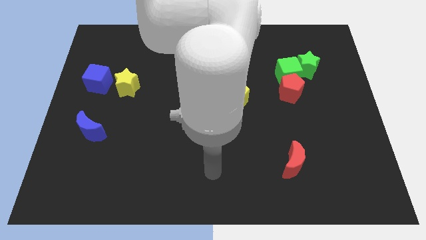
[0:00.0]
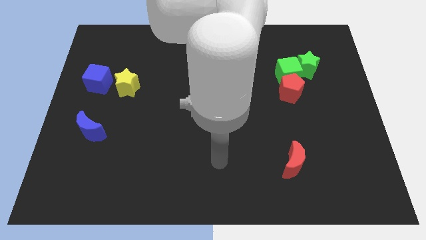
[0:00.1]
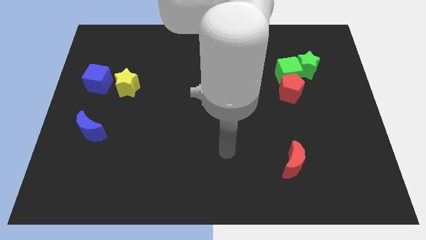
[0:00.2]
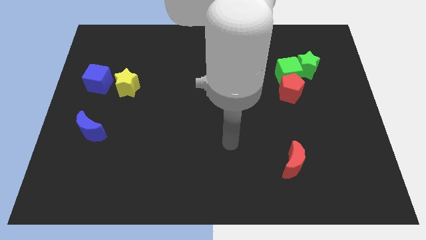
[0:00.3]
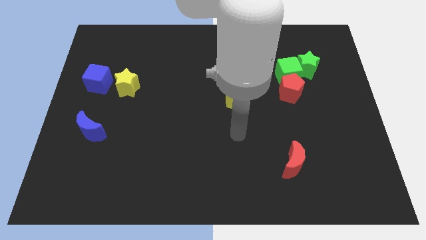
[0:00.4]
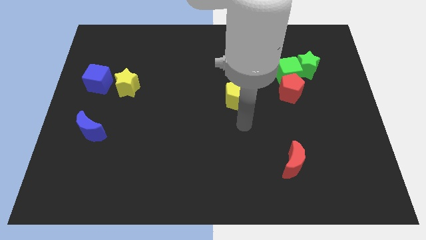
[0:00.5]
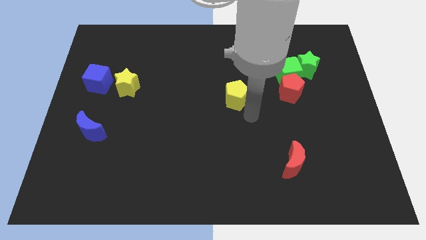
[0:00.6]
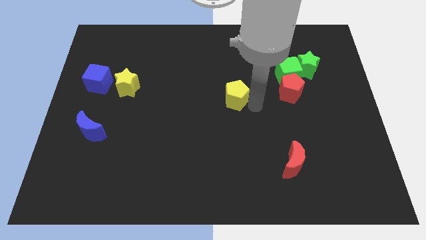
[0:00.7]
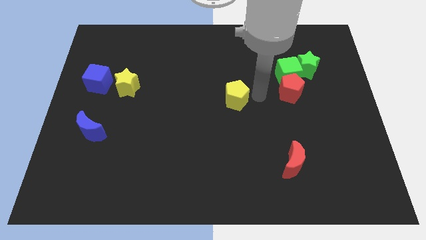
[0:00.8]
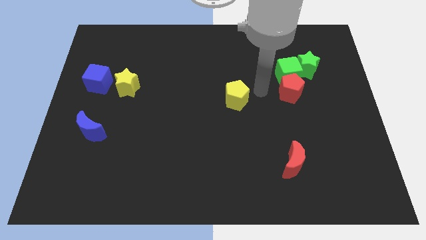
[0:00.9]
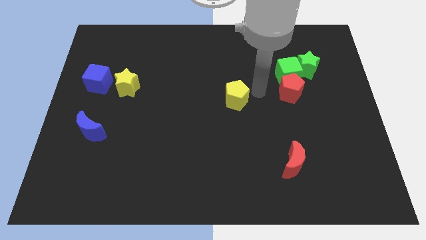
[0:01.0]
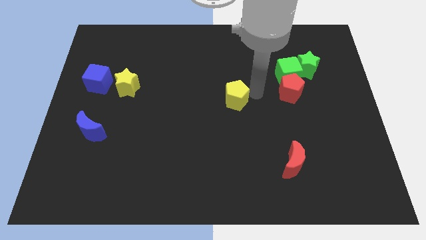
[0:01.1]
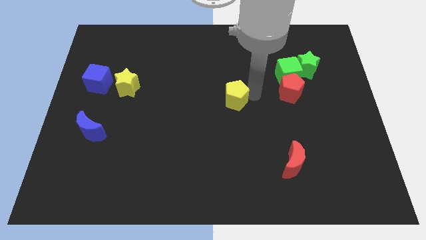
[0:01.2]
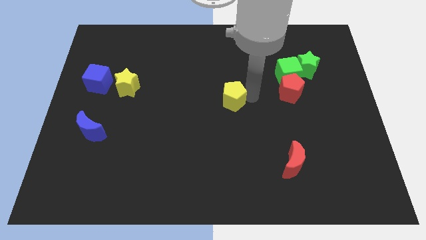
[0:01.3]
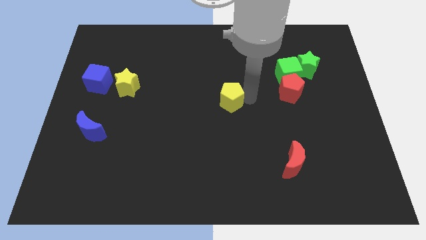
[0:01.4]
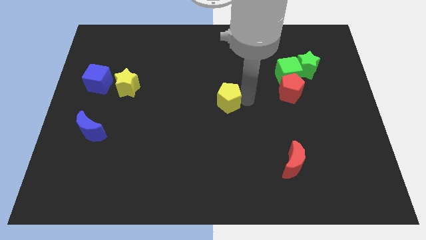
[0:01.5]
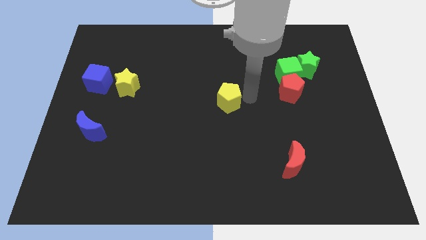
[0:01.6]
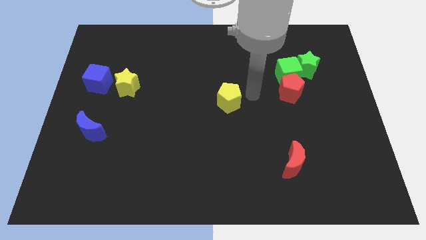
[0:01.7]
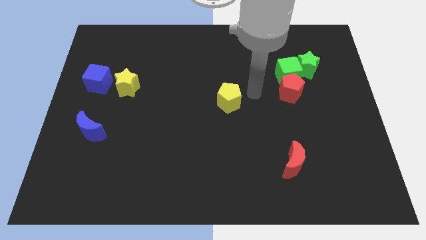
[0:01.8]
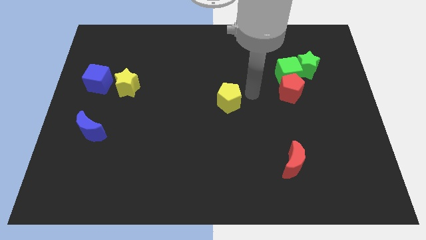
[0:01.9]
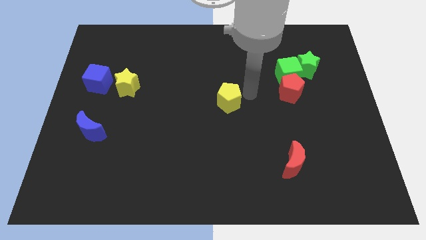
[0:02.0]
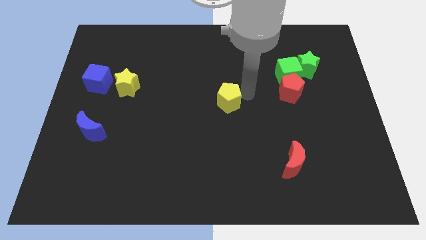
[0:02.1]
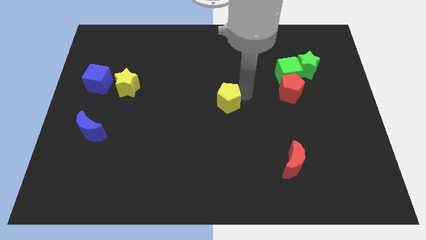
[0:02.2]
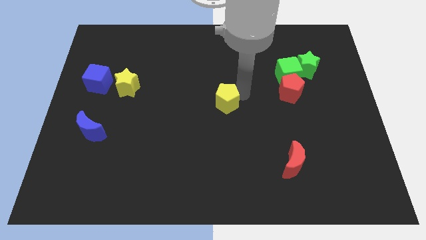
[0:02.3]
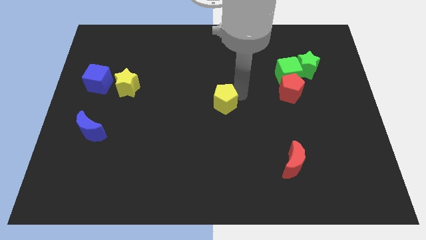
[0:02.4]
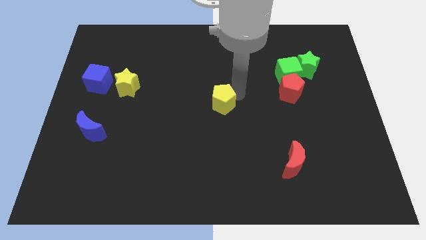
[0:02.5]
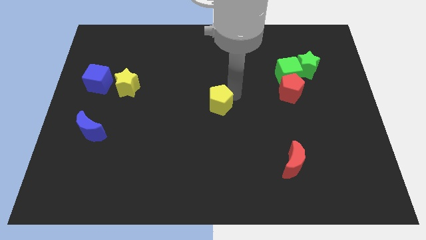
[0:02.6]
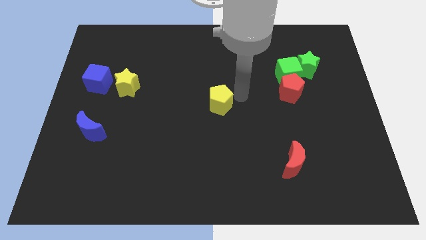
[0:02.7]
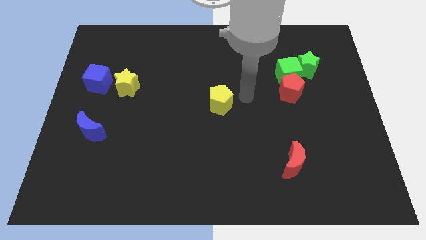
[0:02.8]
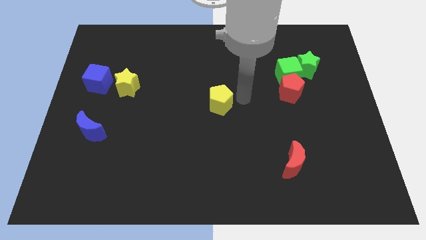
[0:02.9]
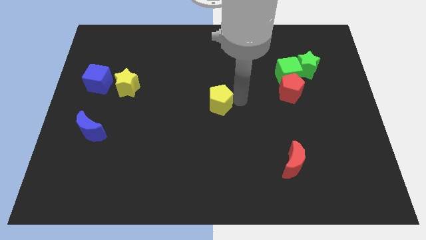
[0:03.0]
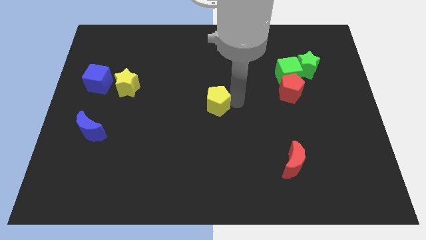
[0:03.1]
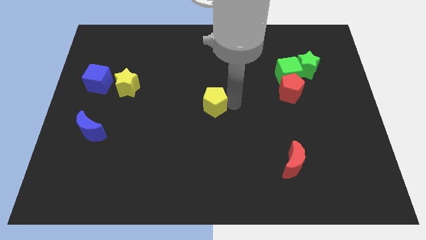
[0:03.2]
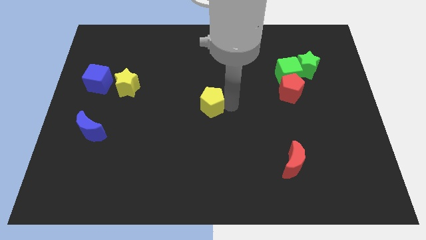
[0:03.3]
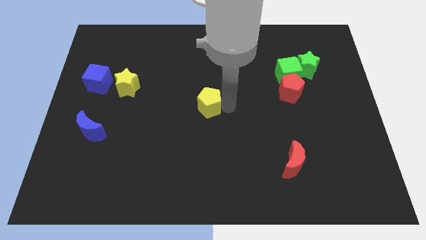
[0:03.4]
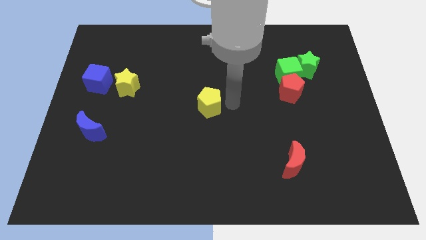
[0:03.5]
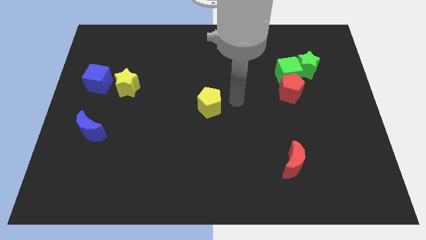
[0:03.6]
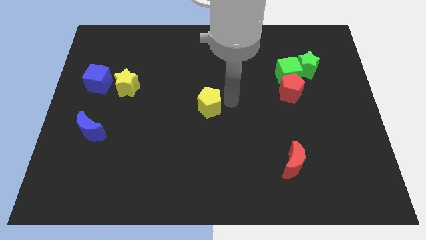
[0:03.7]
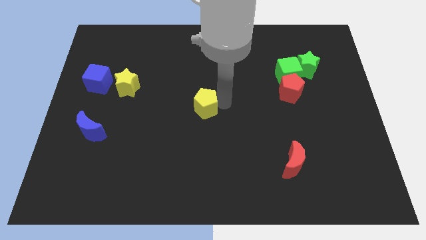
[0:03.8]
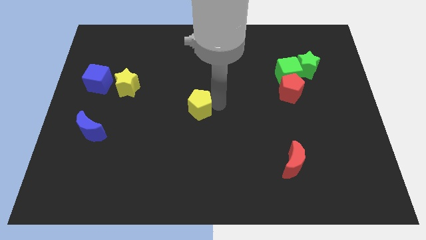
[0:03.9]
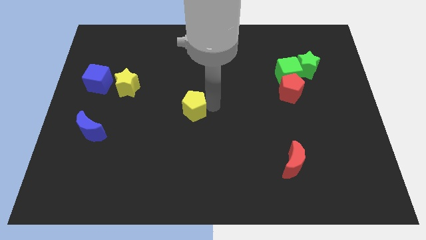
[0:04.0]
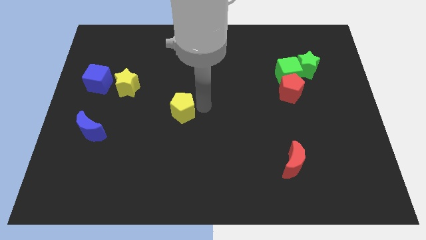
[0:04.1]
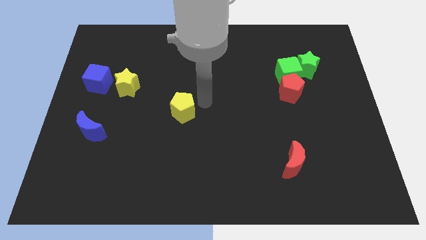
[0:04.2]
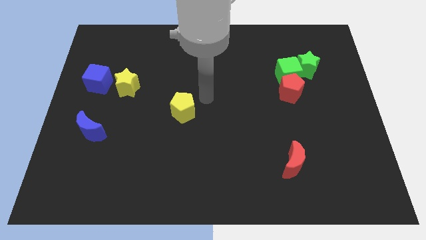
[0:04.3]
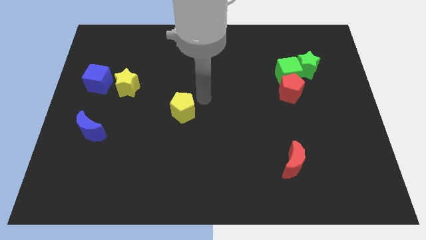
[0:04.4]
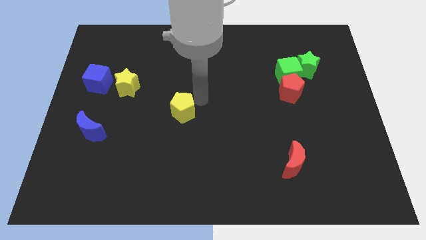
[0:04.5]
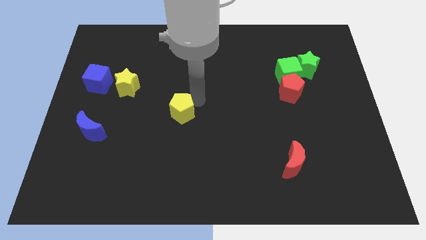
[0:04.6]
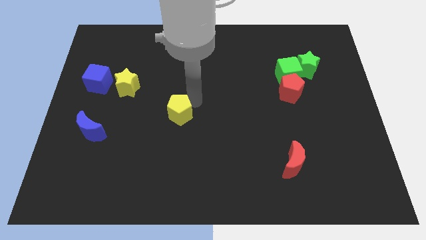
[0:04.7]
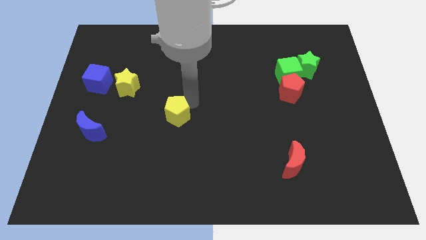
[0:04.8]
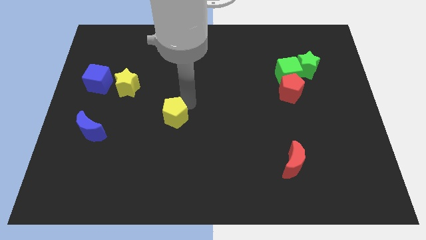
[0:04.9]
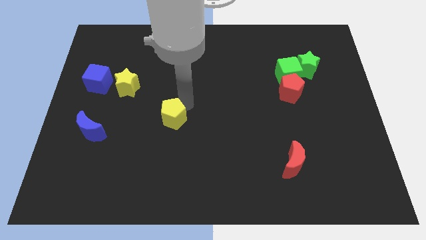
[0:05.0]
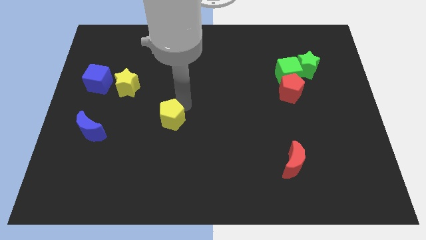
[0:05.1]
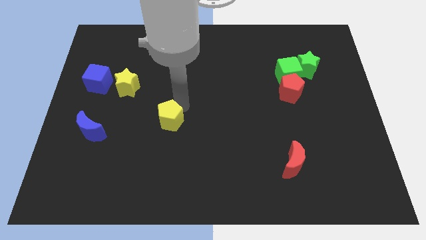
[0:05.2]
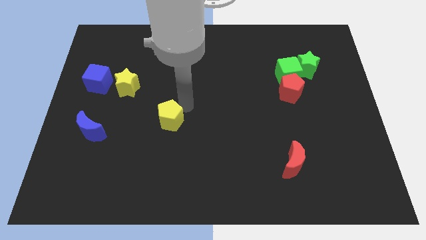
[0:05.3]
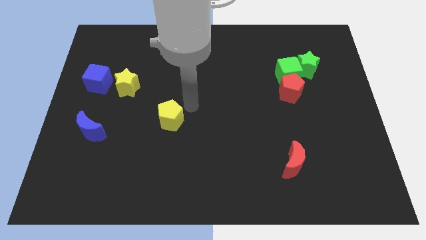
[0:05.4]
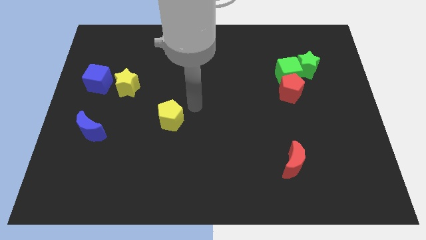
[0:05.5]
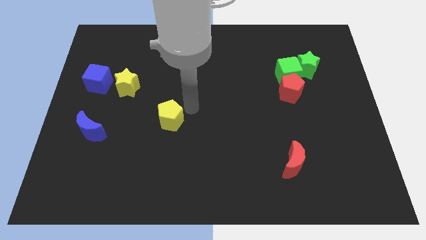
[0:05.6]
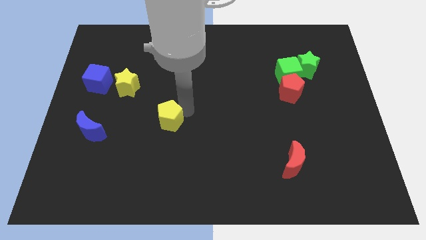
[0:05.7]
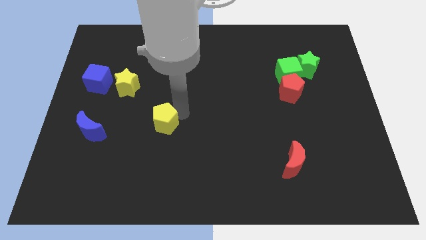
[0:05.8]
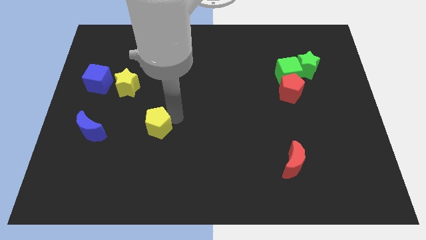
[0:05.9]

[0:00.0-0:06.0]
push the yellow pentagon to the right of the blue moon

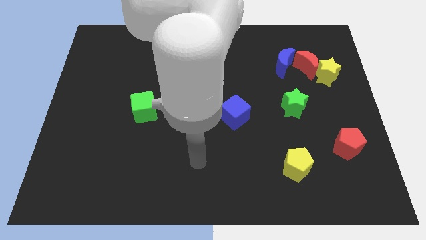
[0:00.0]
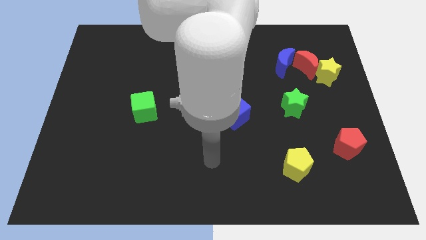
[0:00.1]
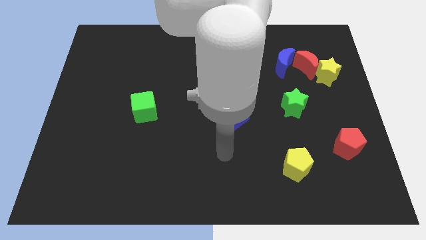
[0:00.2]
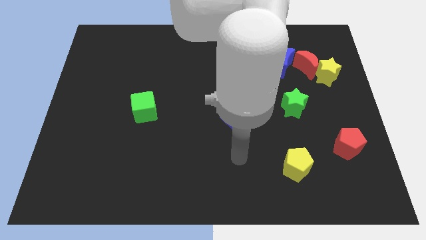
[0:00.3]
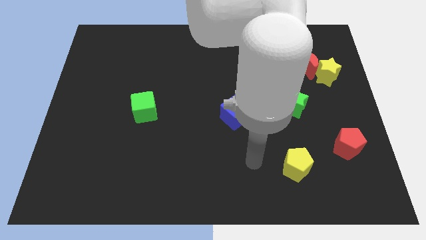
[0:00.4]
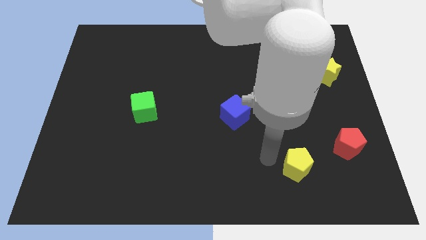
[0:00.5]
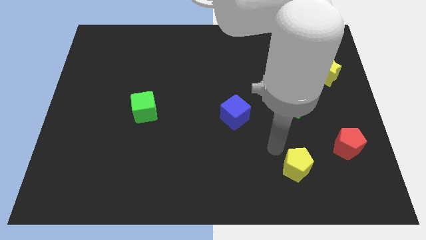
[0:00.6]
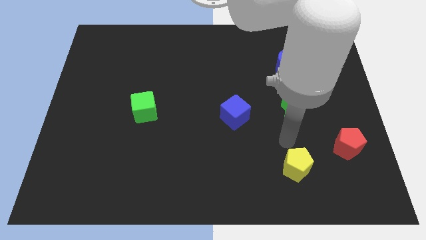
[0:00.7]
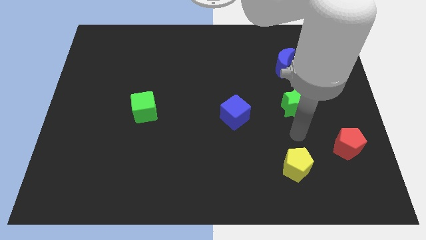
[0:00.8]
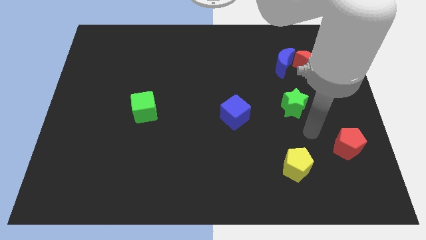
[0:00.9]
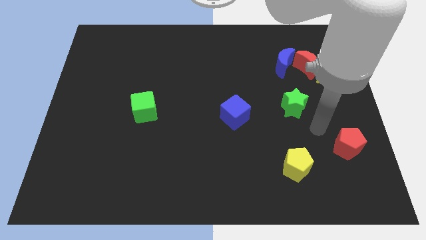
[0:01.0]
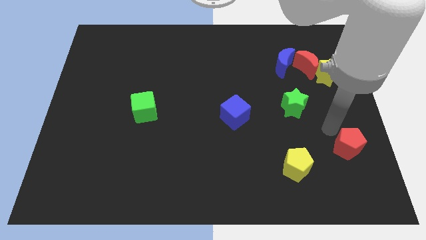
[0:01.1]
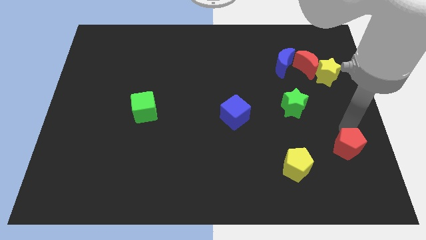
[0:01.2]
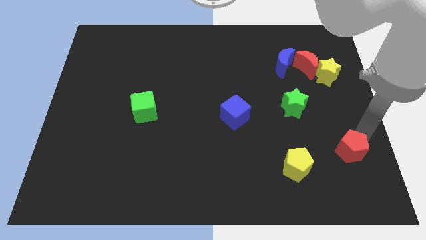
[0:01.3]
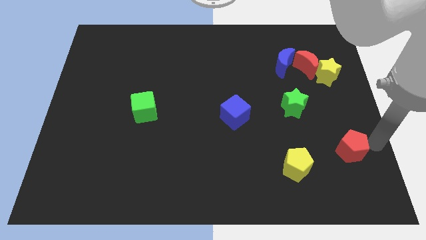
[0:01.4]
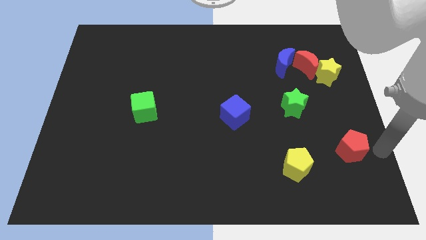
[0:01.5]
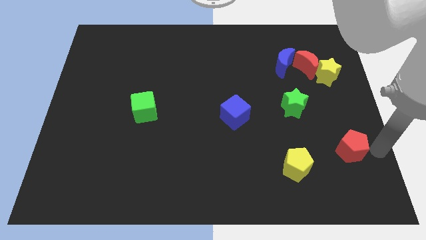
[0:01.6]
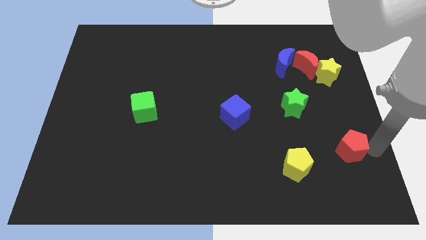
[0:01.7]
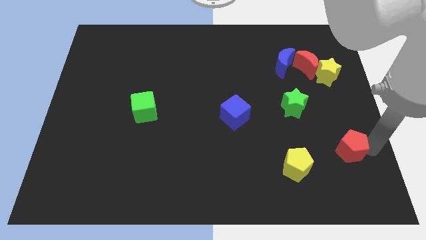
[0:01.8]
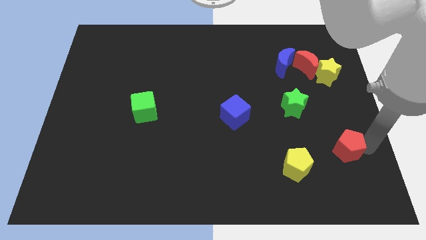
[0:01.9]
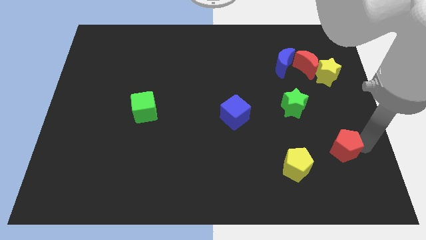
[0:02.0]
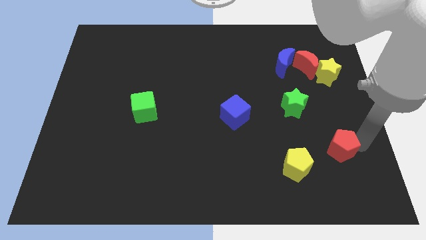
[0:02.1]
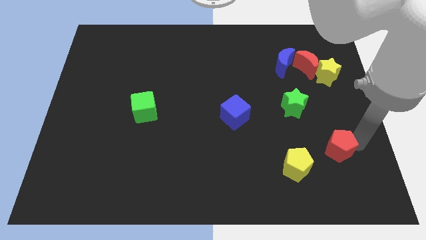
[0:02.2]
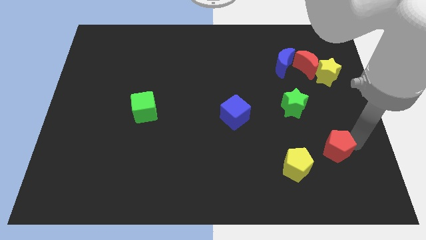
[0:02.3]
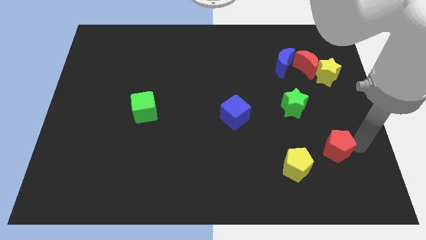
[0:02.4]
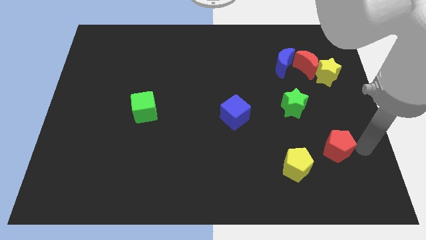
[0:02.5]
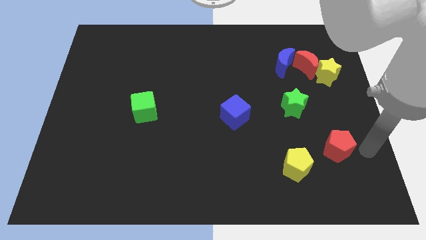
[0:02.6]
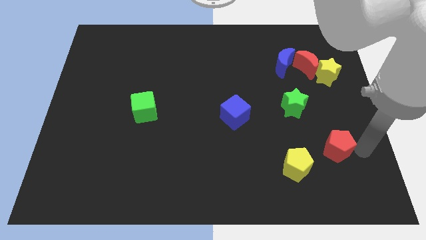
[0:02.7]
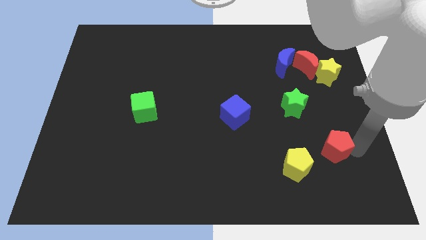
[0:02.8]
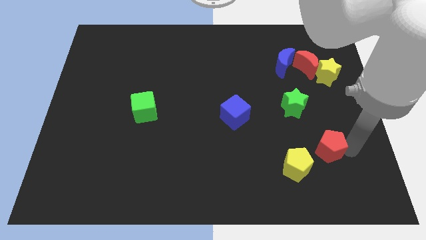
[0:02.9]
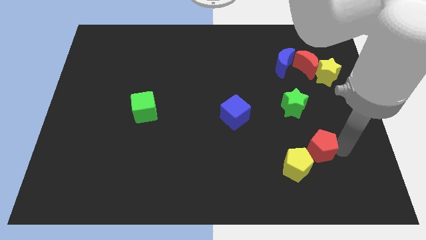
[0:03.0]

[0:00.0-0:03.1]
move the red pentagon to the bottom side of the green star
